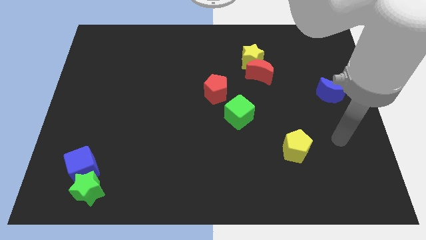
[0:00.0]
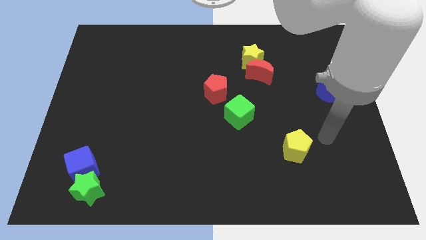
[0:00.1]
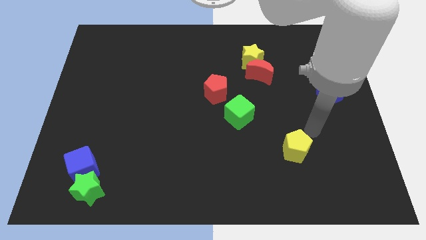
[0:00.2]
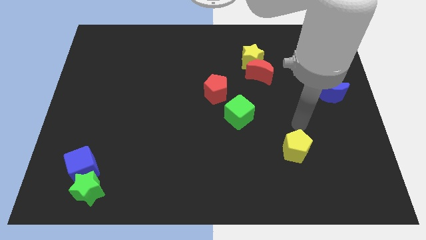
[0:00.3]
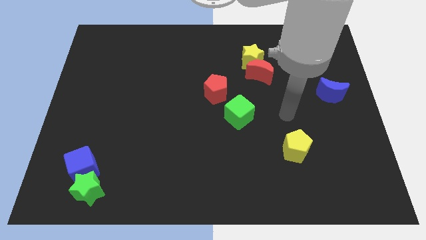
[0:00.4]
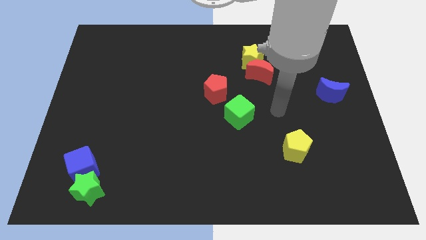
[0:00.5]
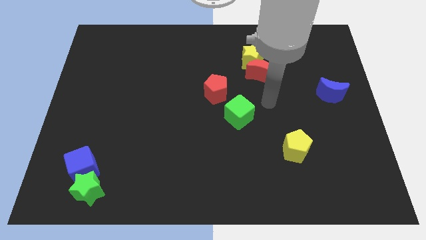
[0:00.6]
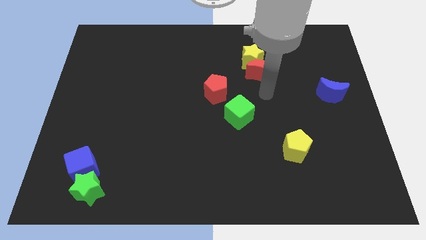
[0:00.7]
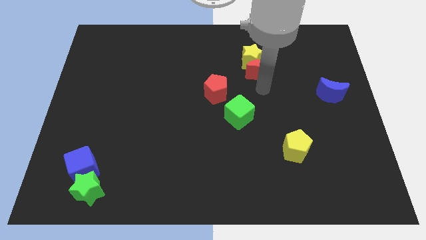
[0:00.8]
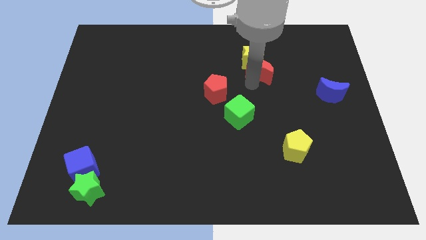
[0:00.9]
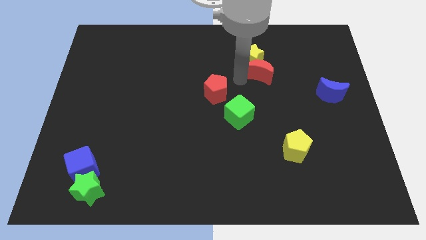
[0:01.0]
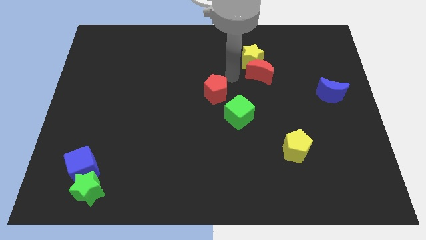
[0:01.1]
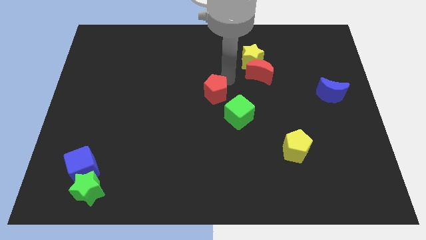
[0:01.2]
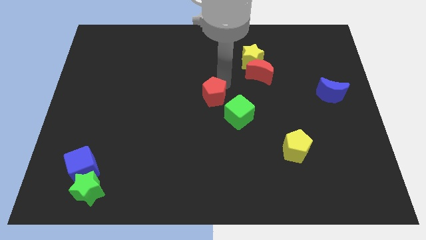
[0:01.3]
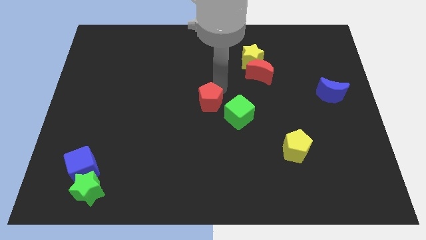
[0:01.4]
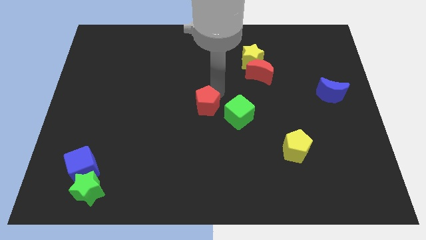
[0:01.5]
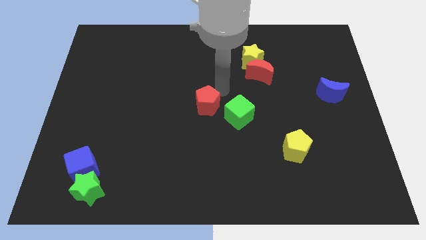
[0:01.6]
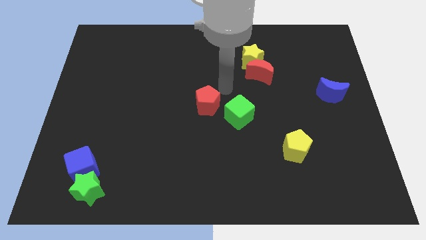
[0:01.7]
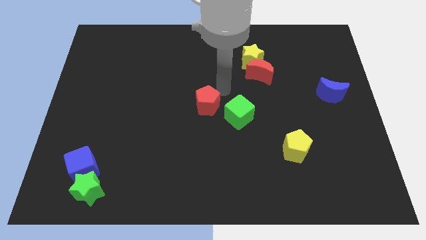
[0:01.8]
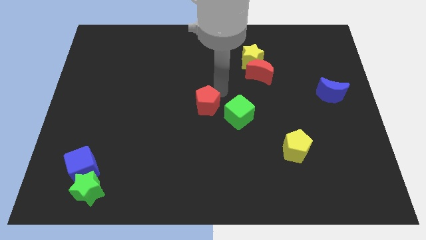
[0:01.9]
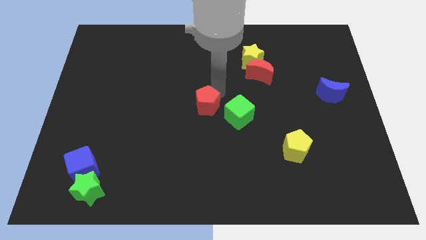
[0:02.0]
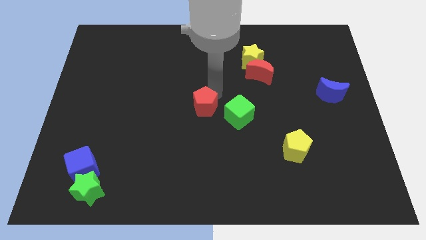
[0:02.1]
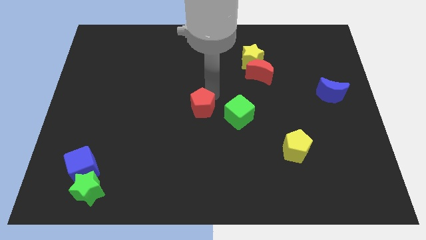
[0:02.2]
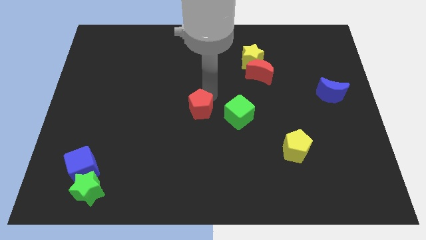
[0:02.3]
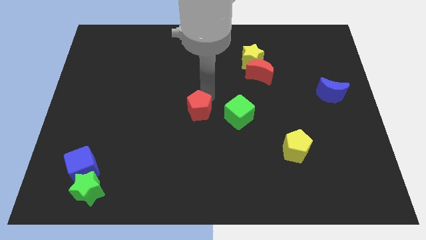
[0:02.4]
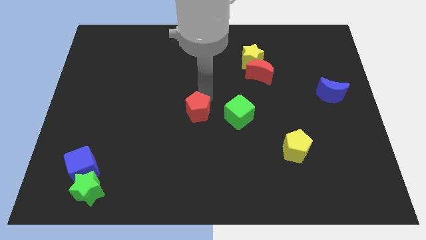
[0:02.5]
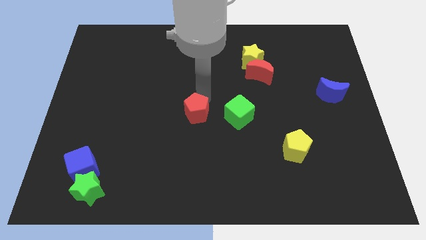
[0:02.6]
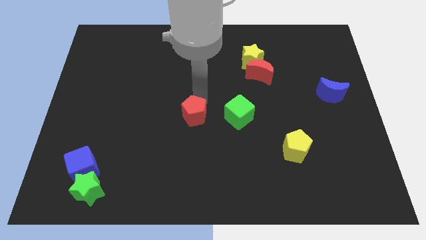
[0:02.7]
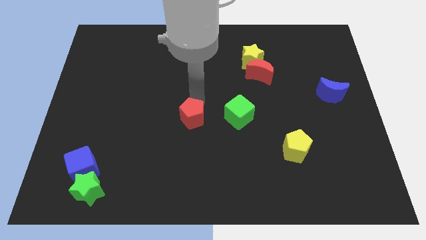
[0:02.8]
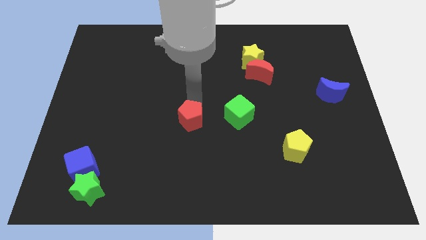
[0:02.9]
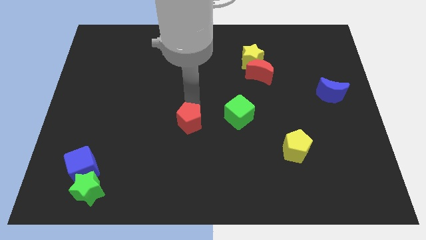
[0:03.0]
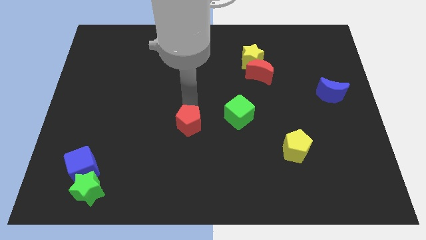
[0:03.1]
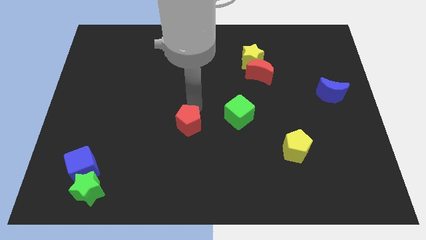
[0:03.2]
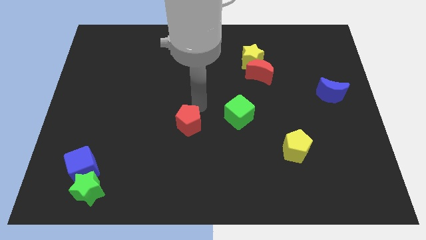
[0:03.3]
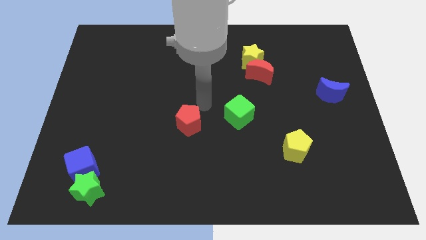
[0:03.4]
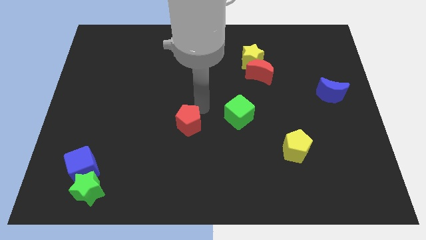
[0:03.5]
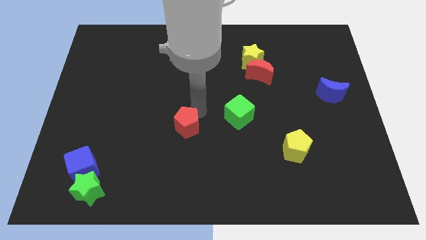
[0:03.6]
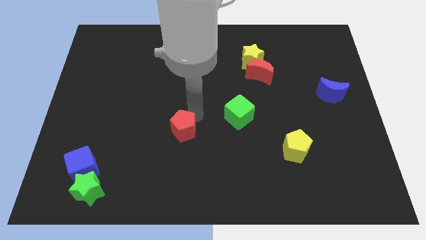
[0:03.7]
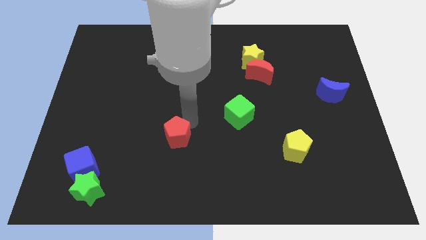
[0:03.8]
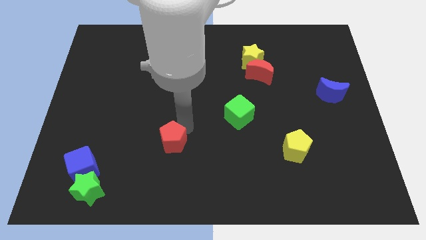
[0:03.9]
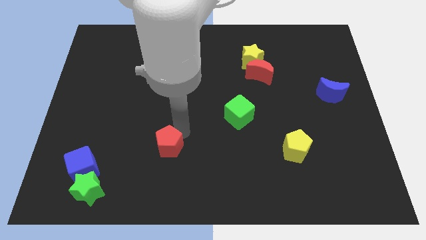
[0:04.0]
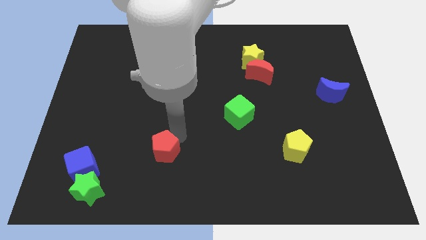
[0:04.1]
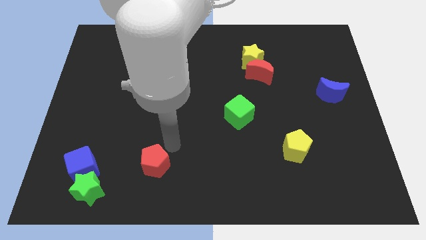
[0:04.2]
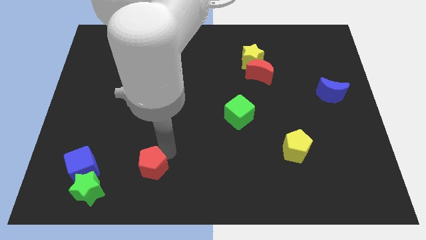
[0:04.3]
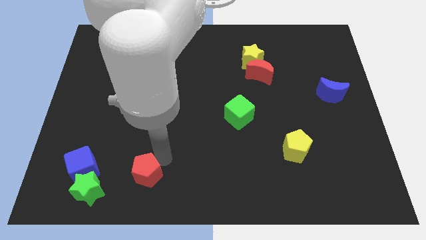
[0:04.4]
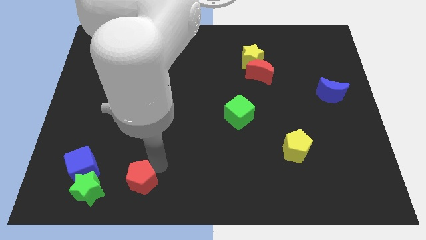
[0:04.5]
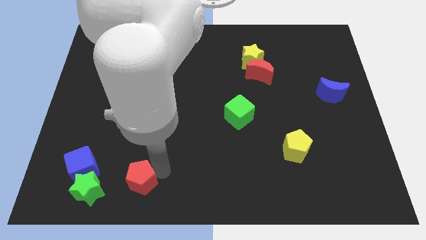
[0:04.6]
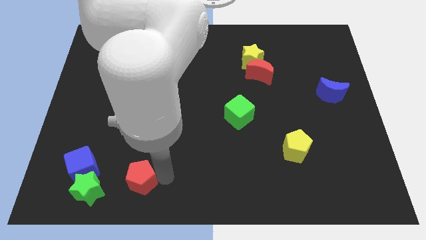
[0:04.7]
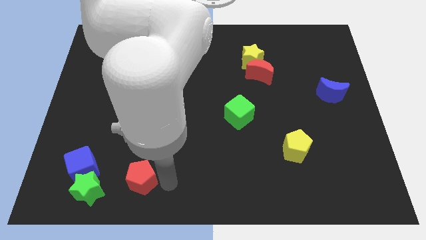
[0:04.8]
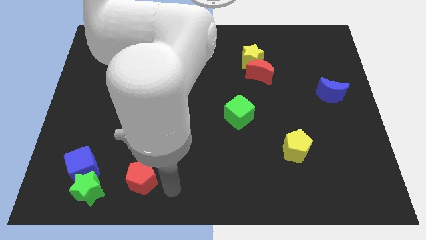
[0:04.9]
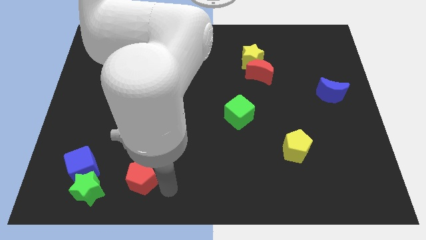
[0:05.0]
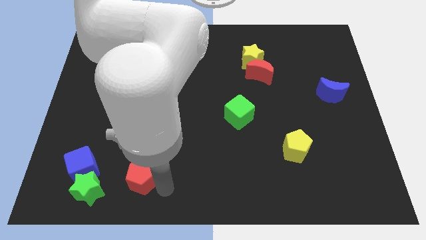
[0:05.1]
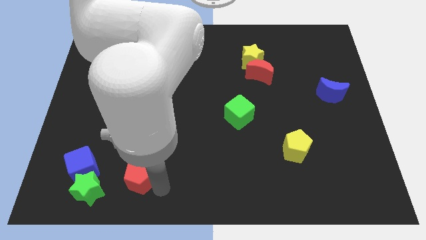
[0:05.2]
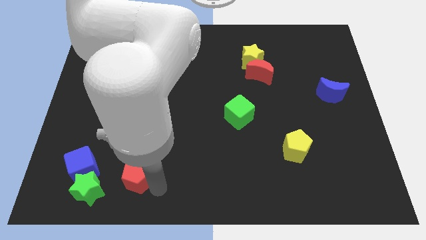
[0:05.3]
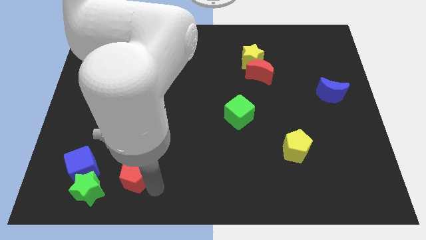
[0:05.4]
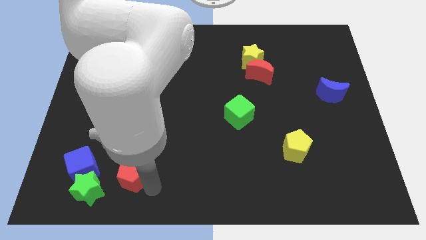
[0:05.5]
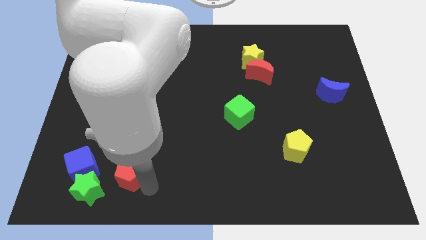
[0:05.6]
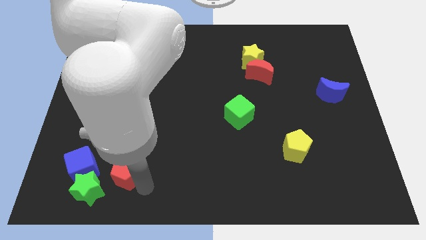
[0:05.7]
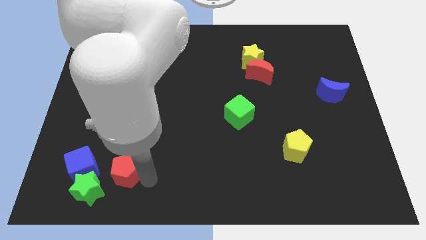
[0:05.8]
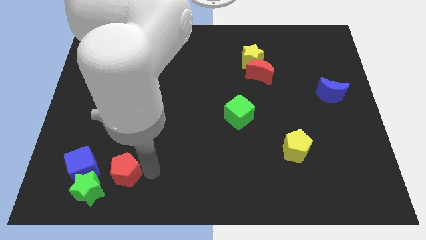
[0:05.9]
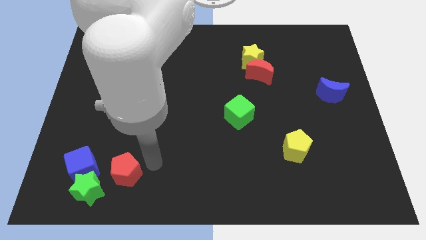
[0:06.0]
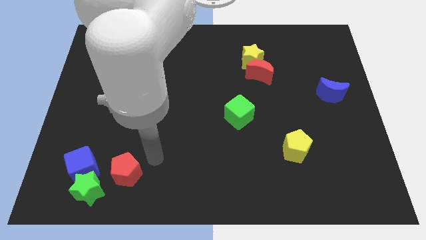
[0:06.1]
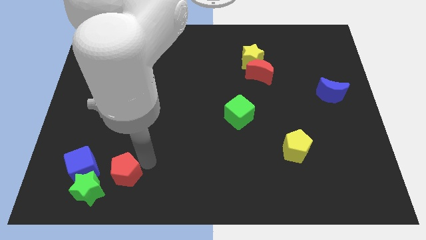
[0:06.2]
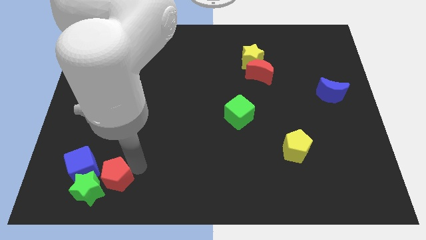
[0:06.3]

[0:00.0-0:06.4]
put the red pentagon towards the green star

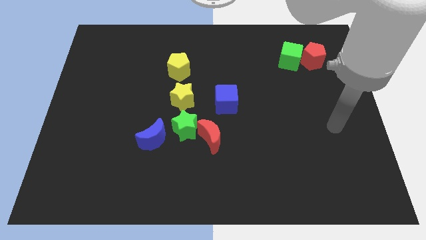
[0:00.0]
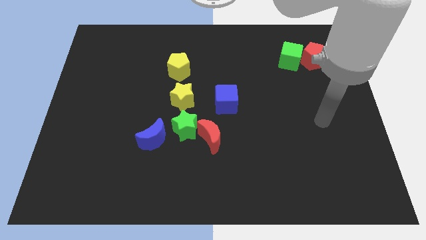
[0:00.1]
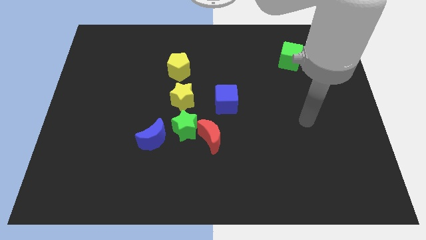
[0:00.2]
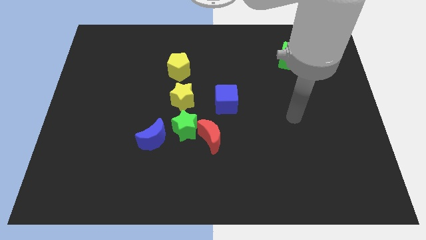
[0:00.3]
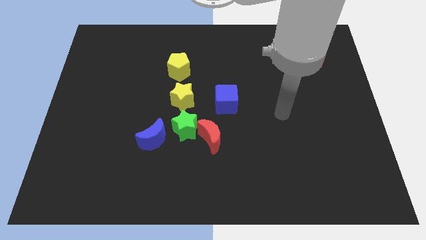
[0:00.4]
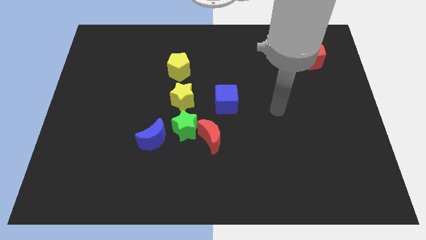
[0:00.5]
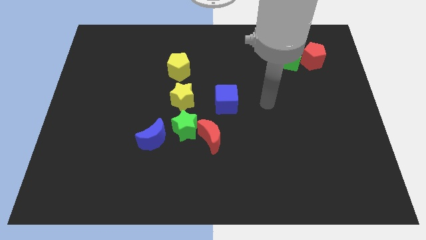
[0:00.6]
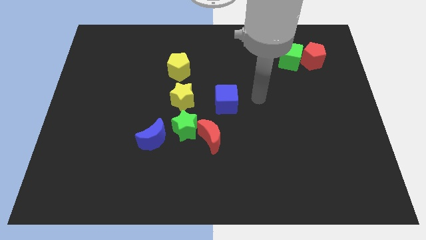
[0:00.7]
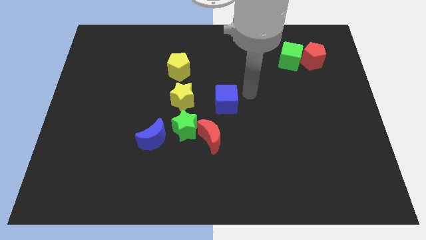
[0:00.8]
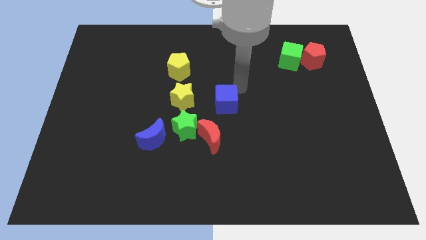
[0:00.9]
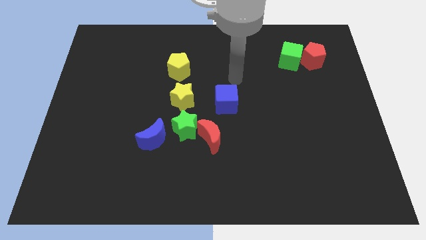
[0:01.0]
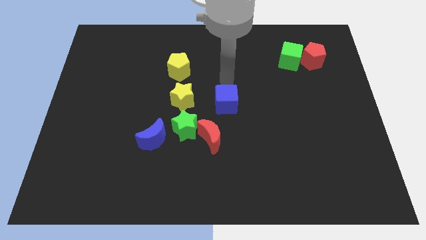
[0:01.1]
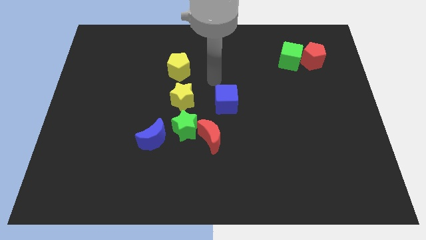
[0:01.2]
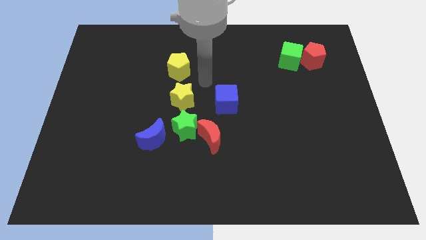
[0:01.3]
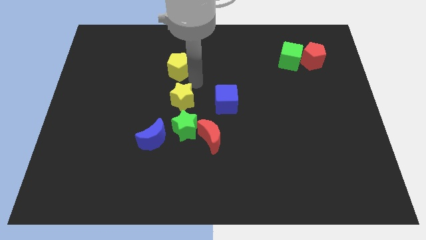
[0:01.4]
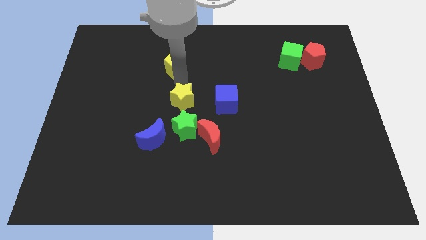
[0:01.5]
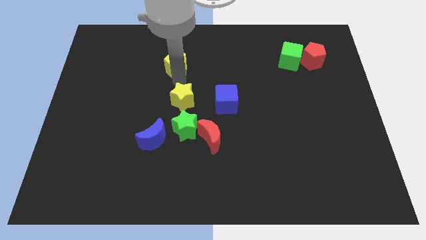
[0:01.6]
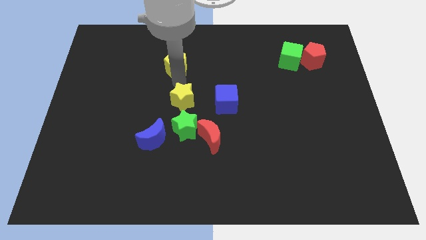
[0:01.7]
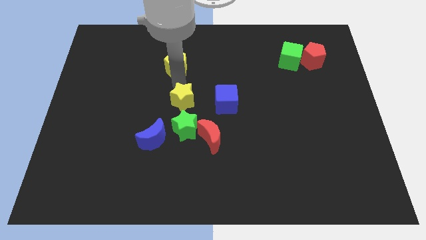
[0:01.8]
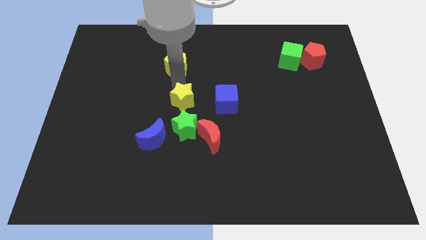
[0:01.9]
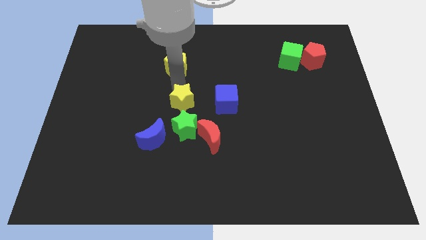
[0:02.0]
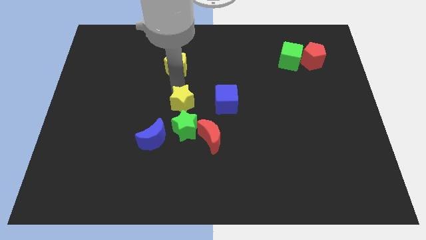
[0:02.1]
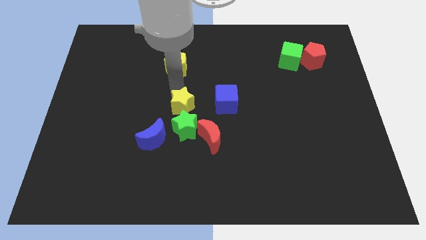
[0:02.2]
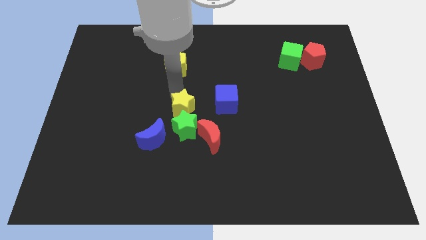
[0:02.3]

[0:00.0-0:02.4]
slide the yellow star to the green star
